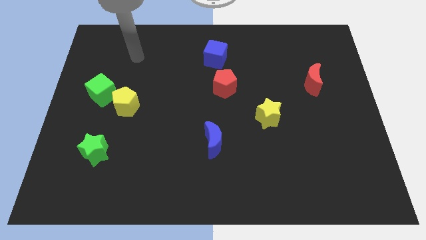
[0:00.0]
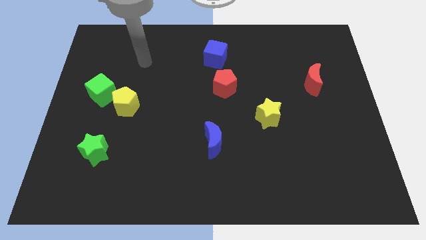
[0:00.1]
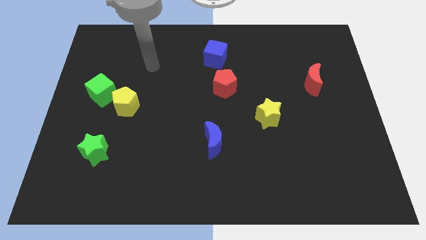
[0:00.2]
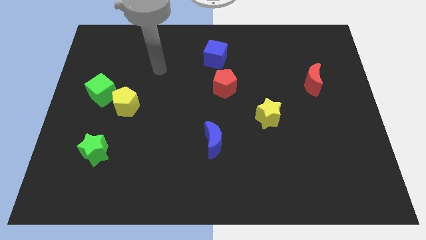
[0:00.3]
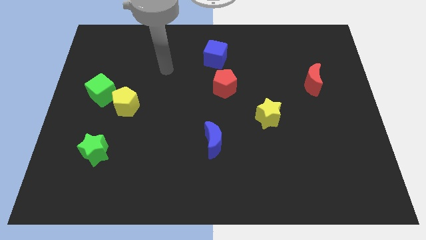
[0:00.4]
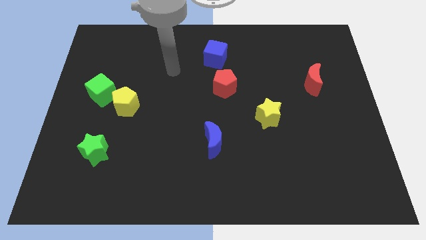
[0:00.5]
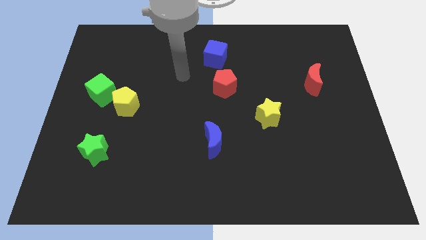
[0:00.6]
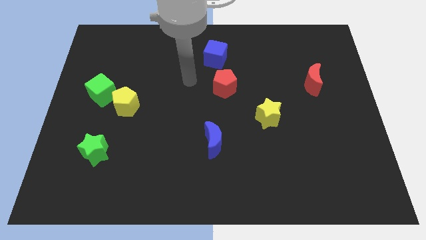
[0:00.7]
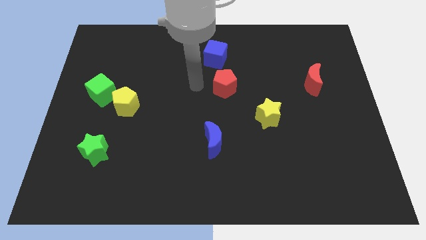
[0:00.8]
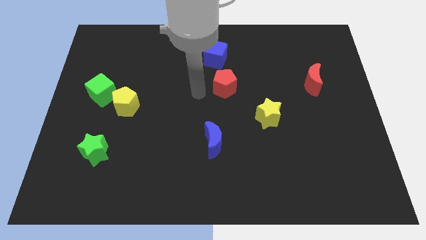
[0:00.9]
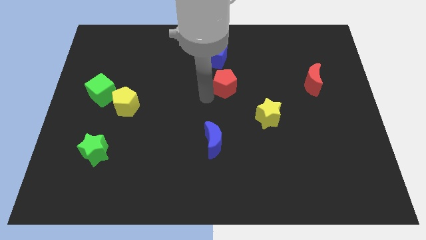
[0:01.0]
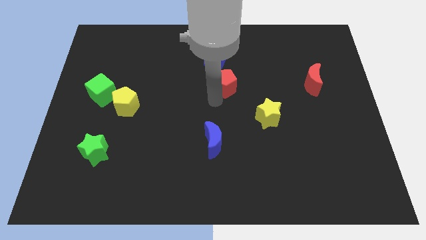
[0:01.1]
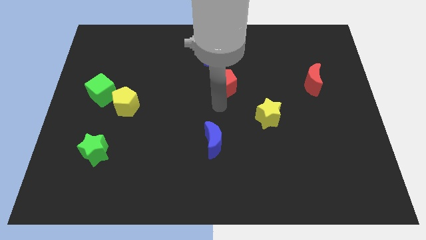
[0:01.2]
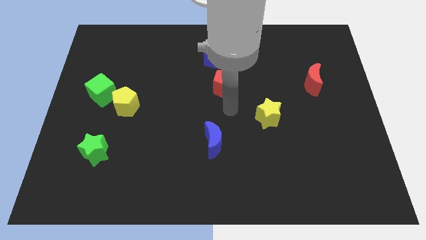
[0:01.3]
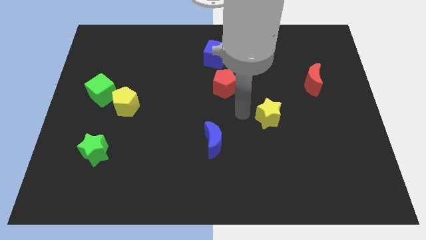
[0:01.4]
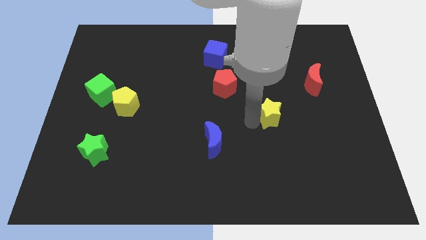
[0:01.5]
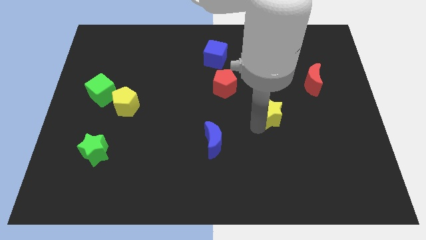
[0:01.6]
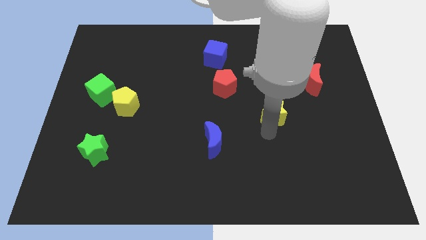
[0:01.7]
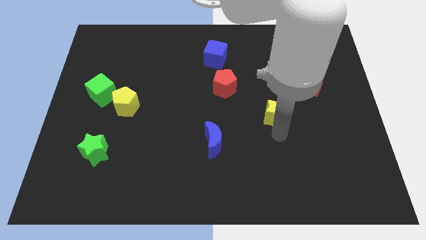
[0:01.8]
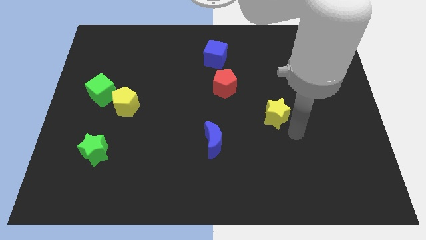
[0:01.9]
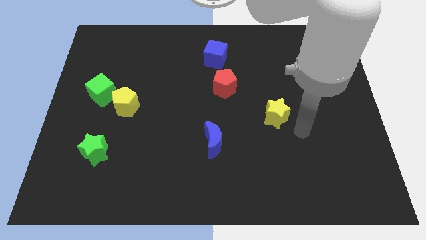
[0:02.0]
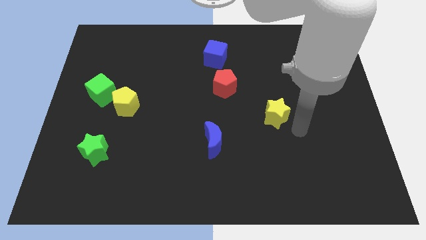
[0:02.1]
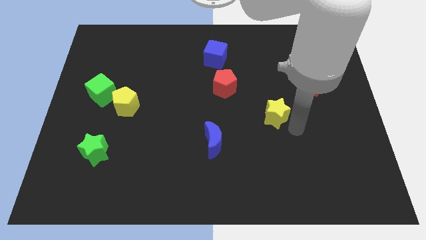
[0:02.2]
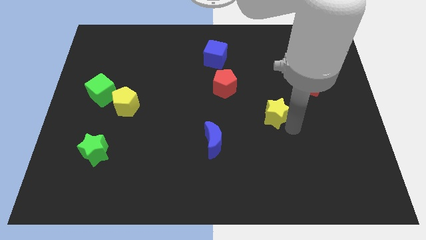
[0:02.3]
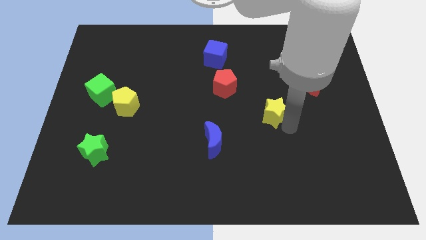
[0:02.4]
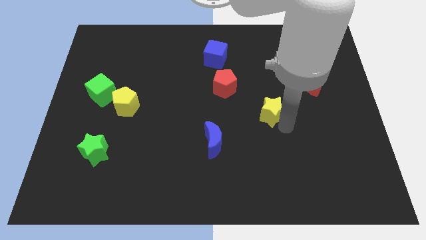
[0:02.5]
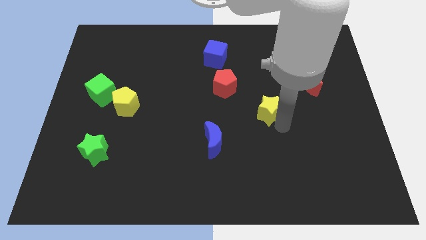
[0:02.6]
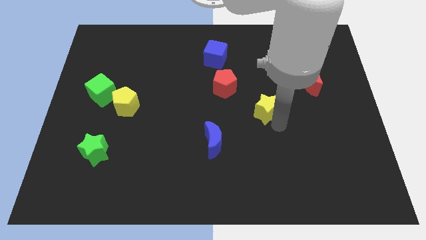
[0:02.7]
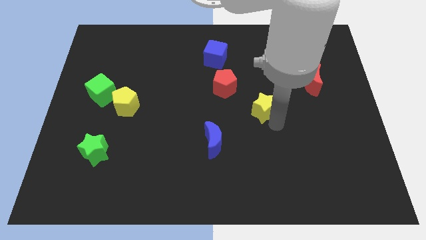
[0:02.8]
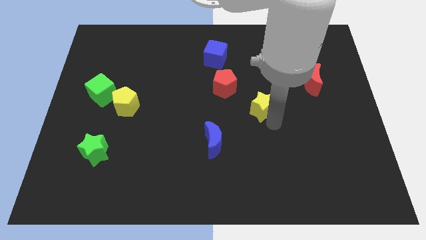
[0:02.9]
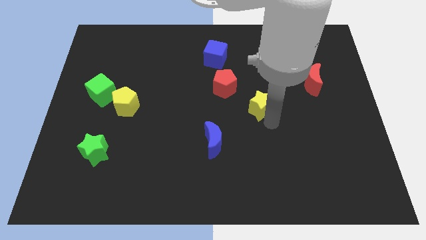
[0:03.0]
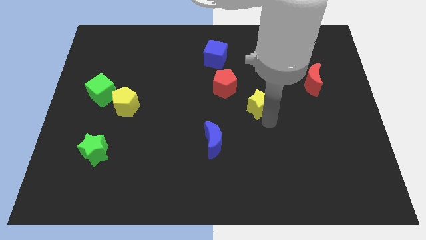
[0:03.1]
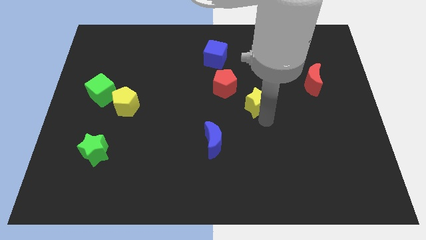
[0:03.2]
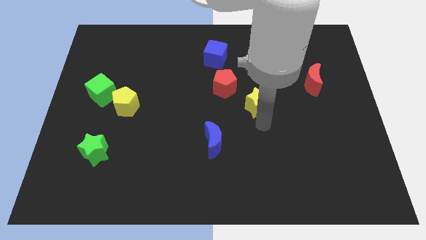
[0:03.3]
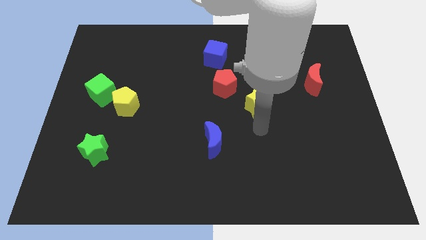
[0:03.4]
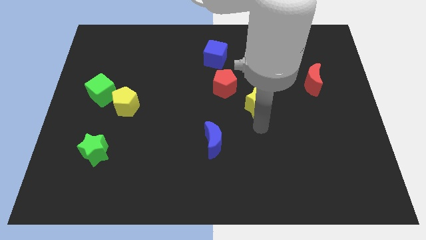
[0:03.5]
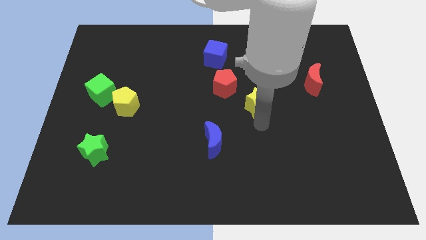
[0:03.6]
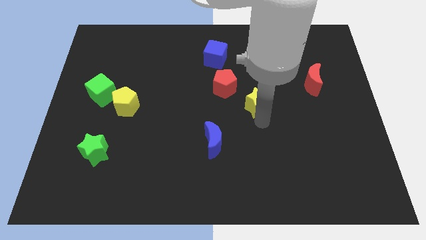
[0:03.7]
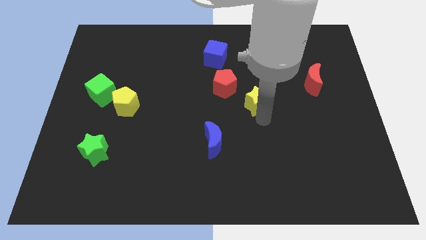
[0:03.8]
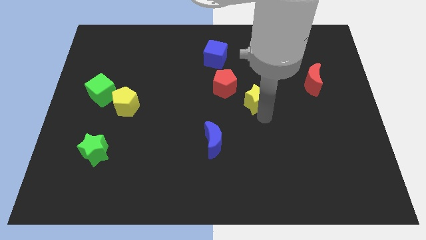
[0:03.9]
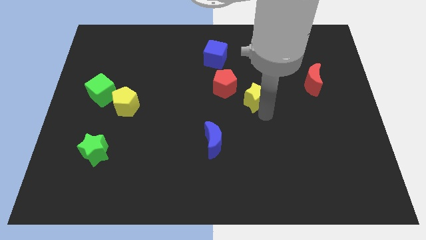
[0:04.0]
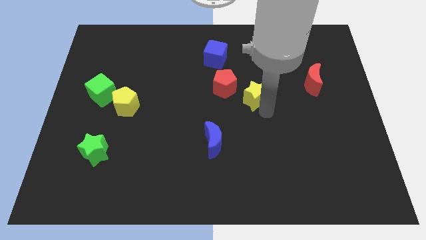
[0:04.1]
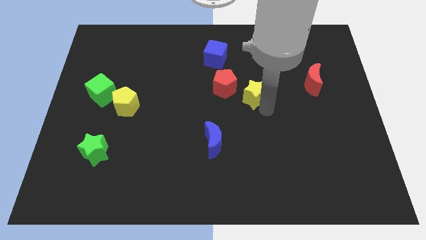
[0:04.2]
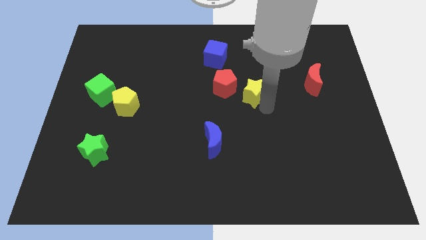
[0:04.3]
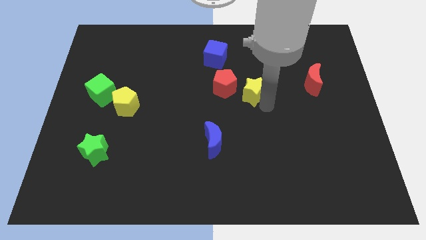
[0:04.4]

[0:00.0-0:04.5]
move the yellow star up and then to the left a little

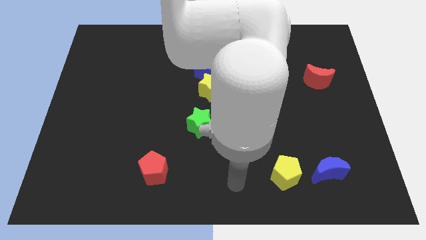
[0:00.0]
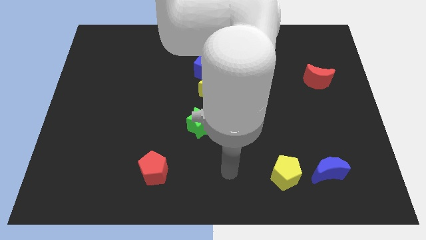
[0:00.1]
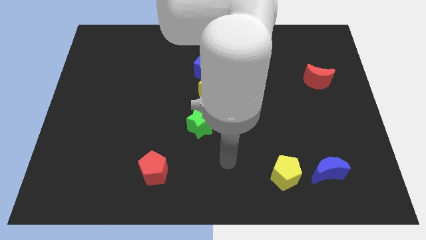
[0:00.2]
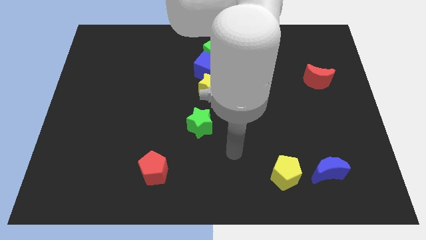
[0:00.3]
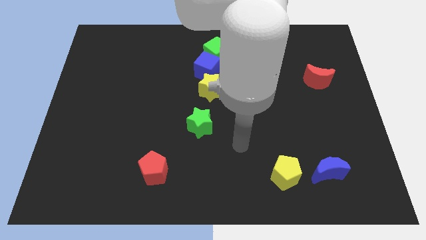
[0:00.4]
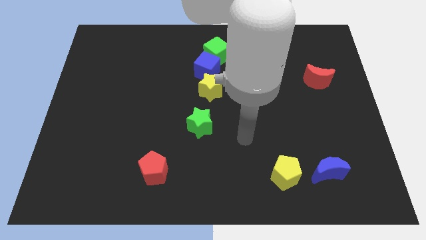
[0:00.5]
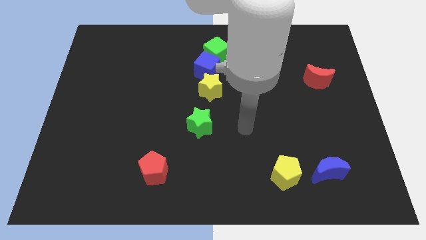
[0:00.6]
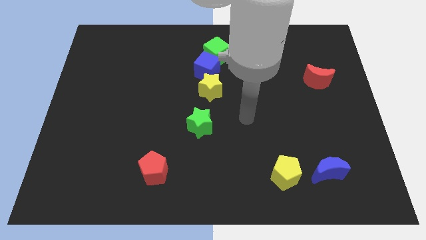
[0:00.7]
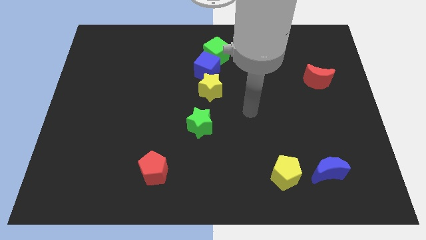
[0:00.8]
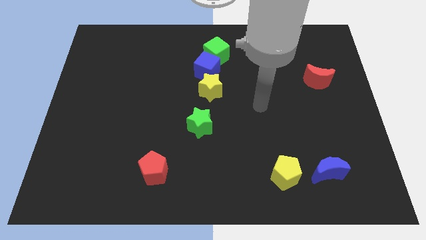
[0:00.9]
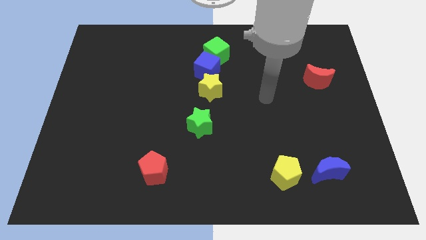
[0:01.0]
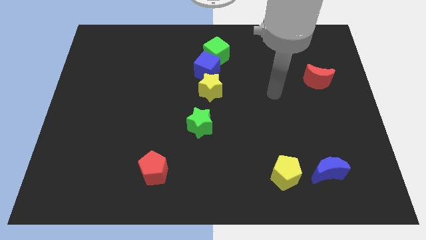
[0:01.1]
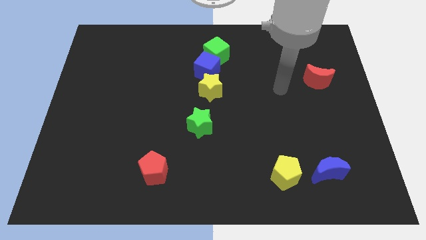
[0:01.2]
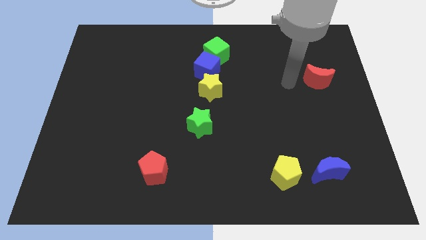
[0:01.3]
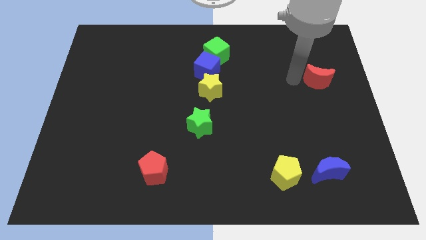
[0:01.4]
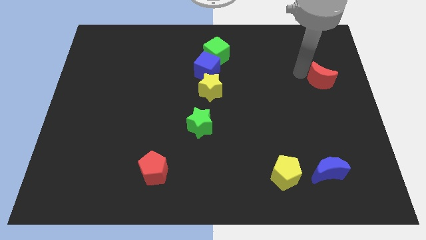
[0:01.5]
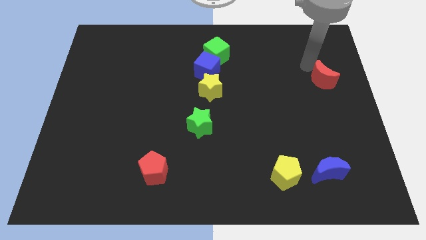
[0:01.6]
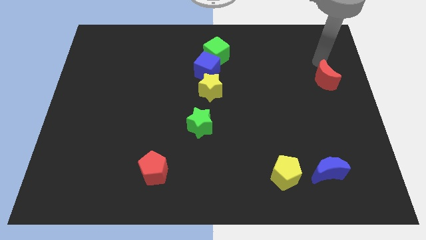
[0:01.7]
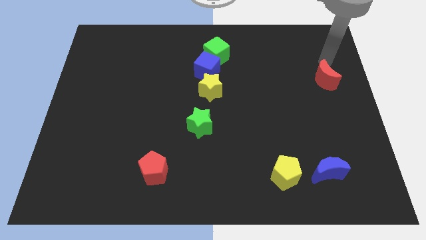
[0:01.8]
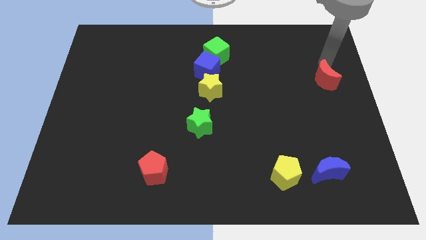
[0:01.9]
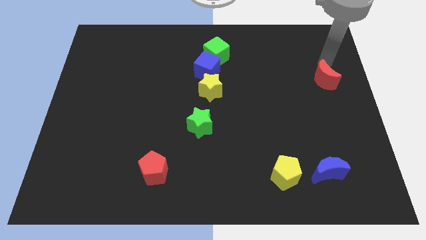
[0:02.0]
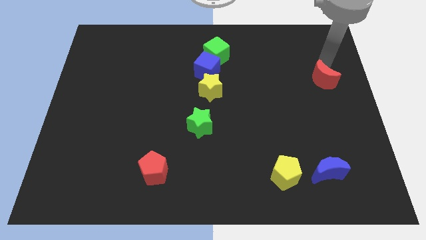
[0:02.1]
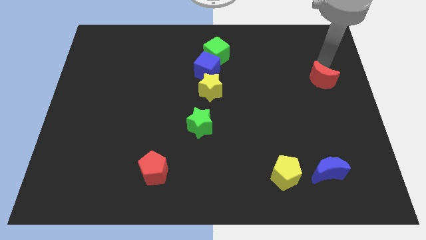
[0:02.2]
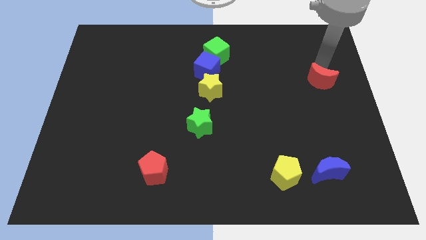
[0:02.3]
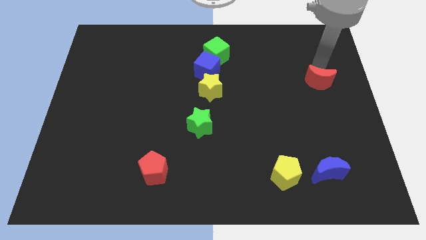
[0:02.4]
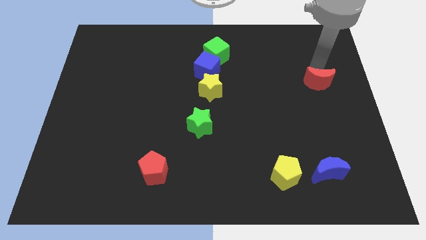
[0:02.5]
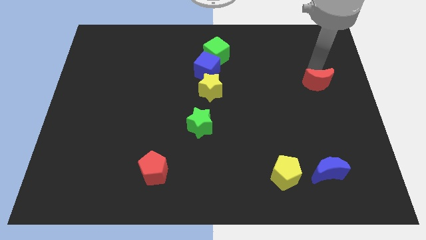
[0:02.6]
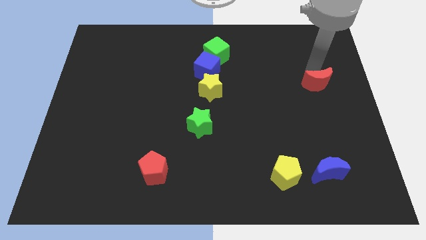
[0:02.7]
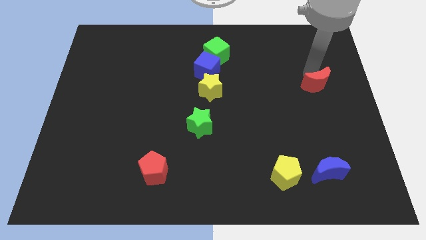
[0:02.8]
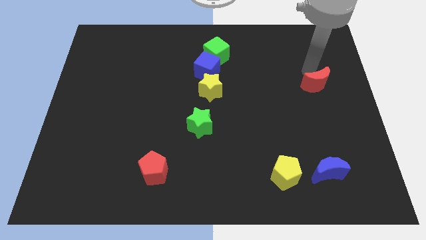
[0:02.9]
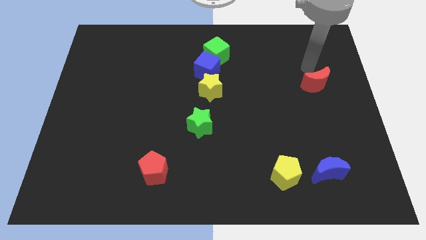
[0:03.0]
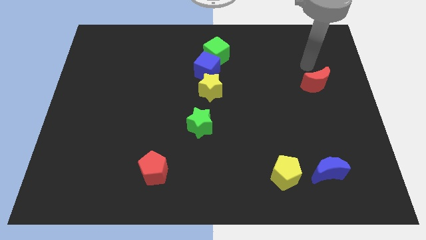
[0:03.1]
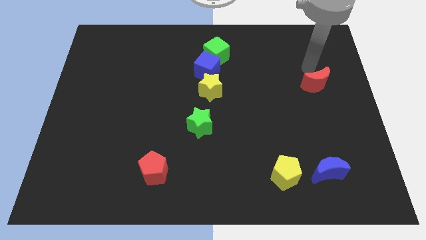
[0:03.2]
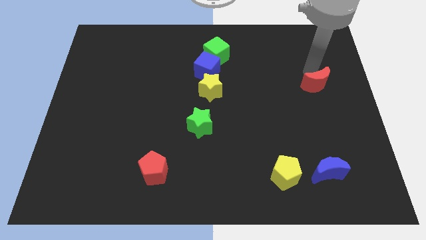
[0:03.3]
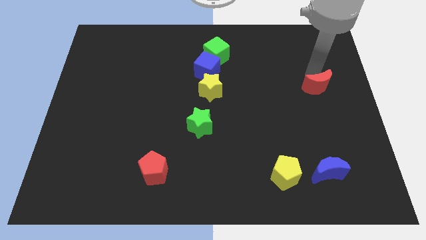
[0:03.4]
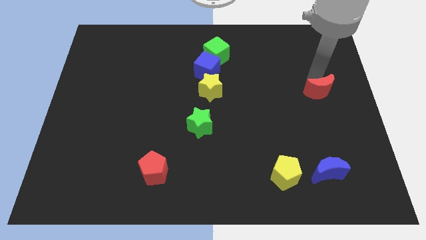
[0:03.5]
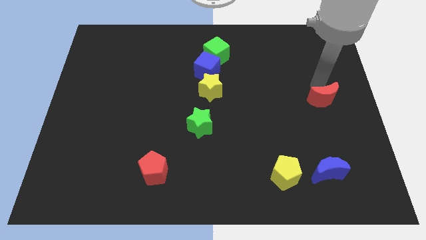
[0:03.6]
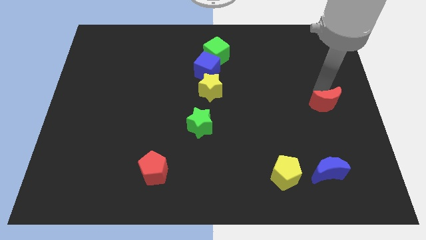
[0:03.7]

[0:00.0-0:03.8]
push the red moon downwards a little bit

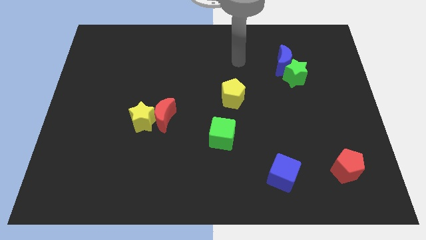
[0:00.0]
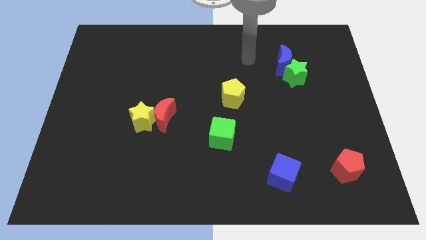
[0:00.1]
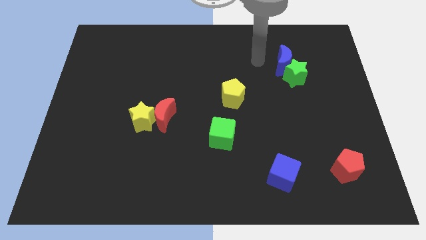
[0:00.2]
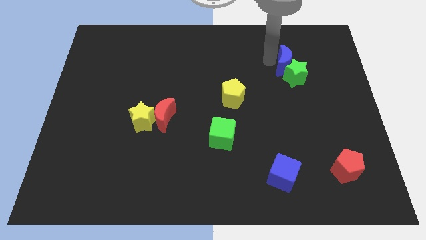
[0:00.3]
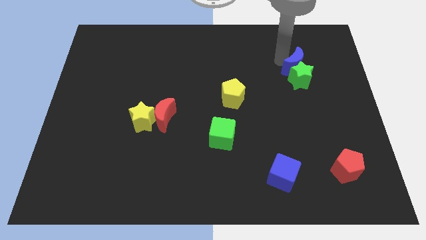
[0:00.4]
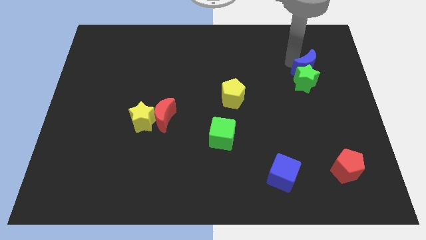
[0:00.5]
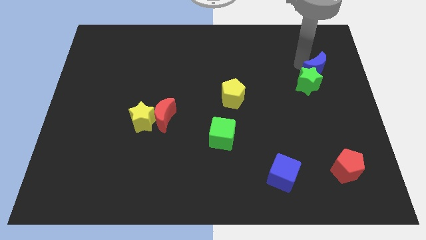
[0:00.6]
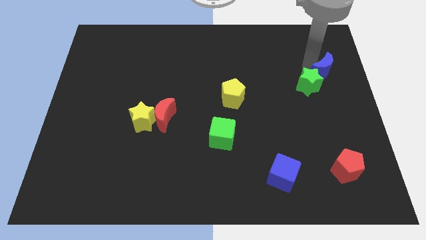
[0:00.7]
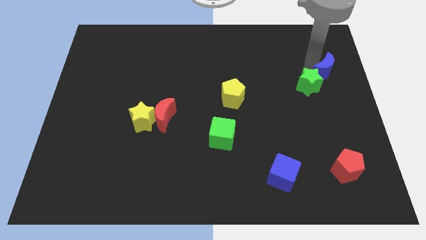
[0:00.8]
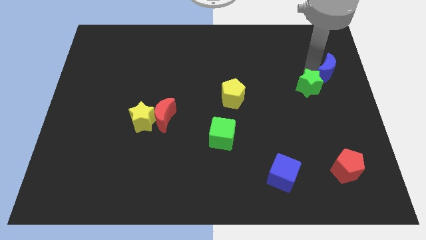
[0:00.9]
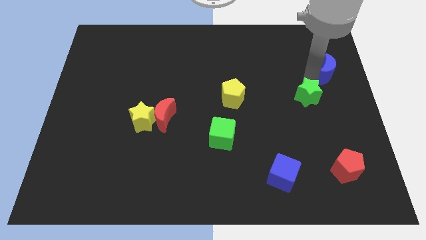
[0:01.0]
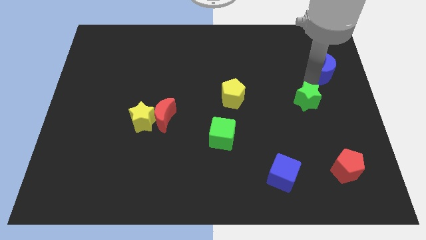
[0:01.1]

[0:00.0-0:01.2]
slightly push the green star downwards
